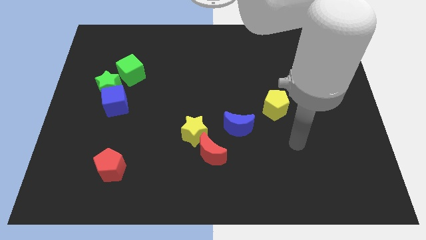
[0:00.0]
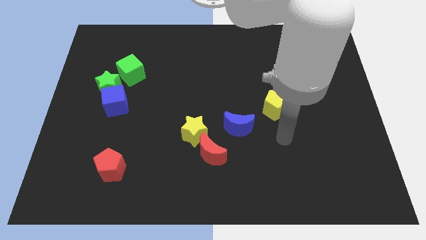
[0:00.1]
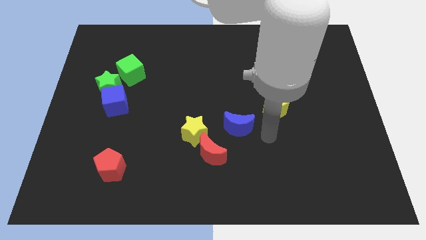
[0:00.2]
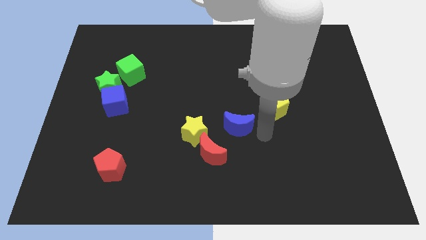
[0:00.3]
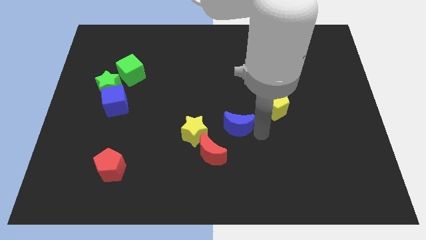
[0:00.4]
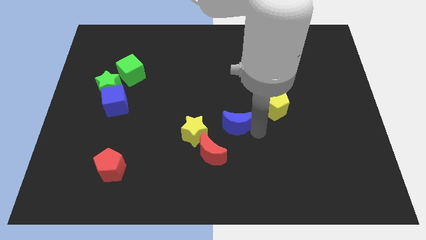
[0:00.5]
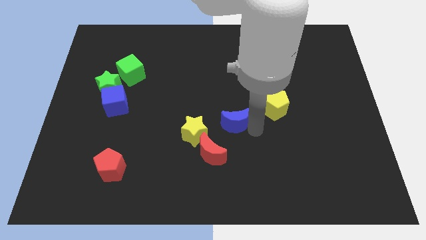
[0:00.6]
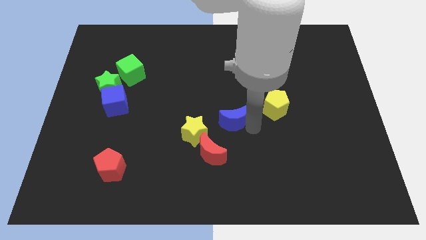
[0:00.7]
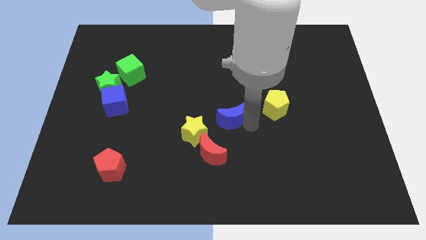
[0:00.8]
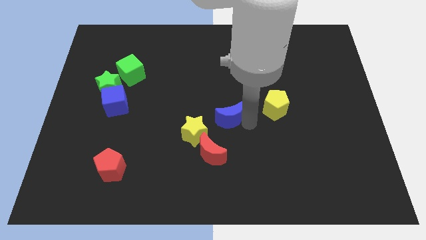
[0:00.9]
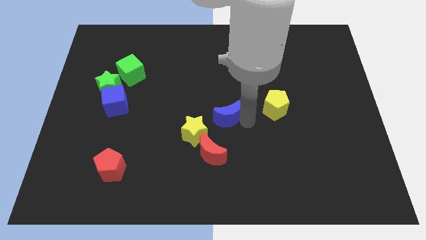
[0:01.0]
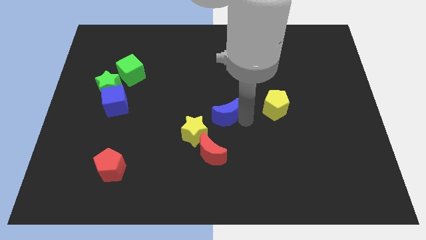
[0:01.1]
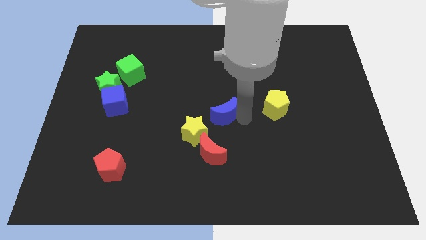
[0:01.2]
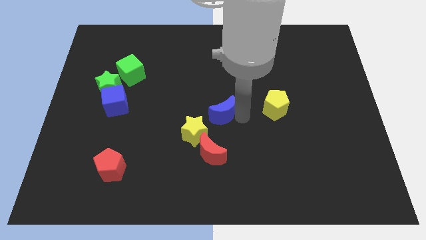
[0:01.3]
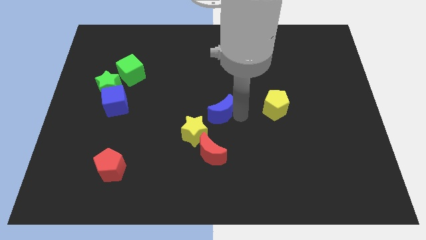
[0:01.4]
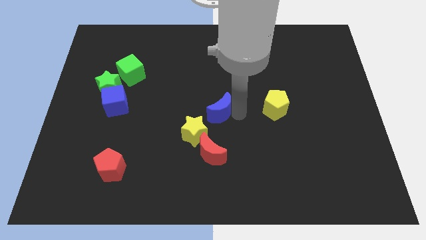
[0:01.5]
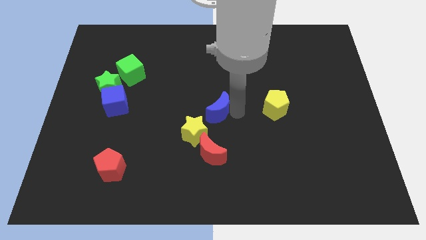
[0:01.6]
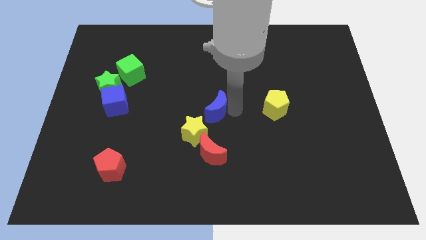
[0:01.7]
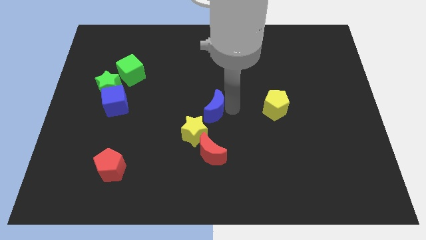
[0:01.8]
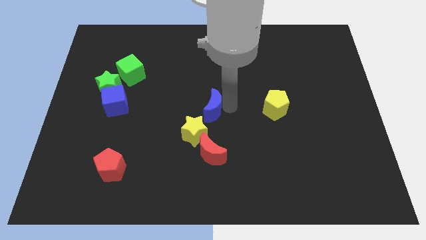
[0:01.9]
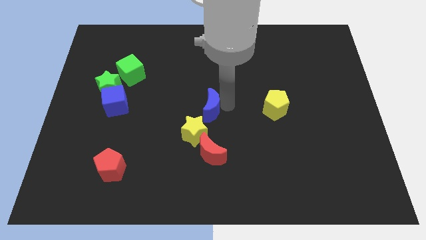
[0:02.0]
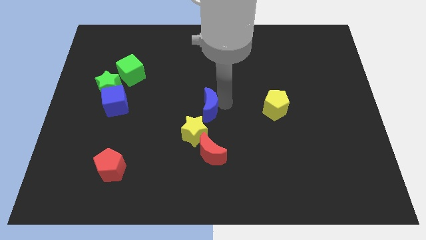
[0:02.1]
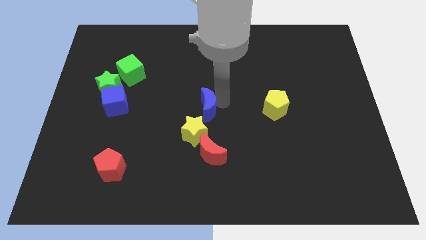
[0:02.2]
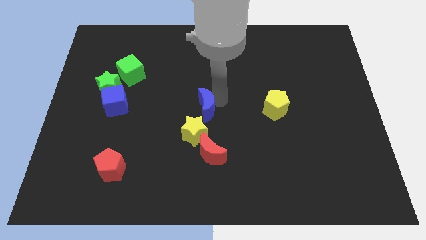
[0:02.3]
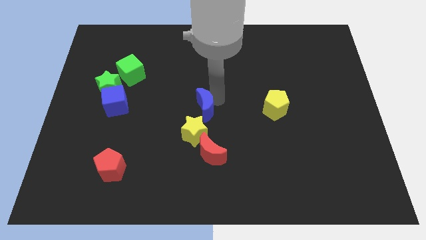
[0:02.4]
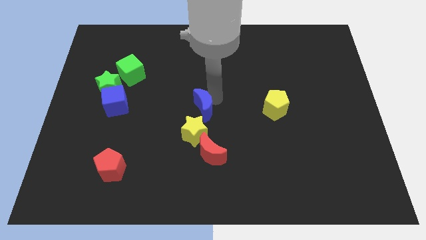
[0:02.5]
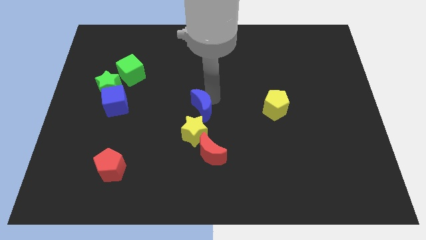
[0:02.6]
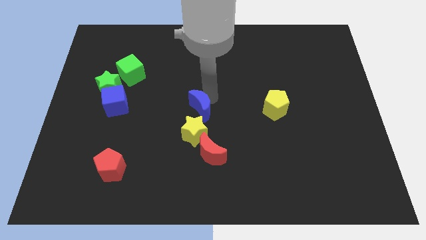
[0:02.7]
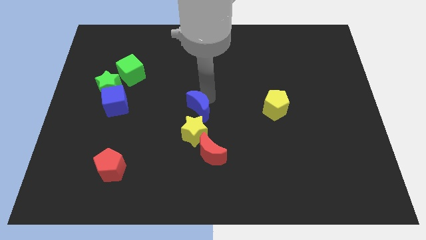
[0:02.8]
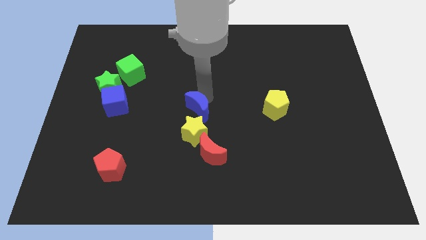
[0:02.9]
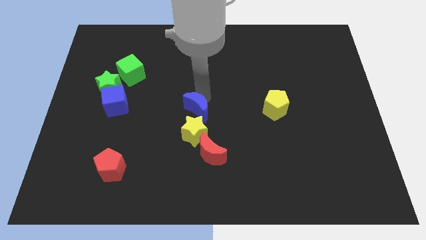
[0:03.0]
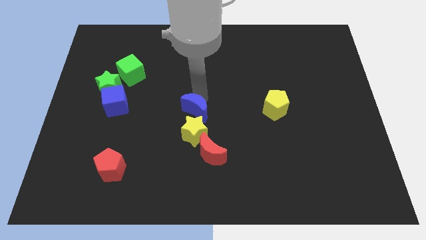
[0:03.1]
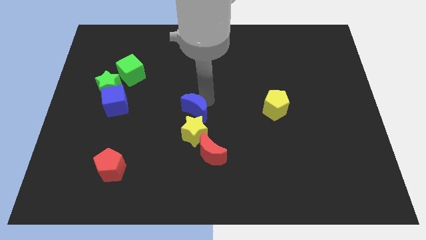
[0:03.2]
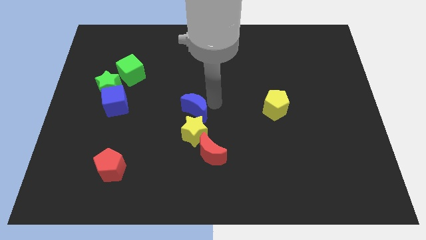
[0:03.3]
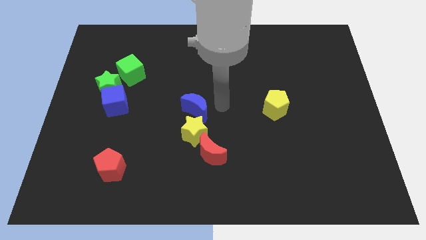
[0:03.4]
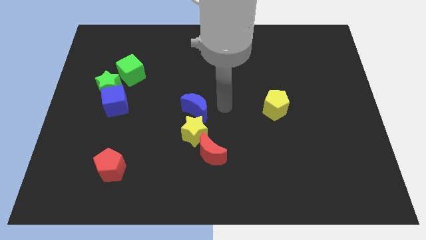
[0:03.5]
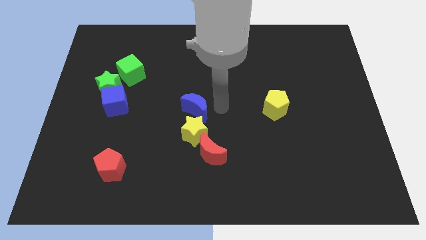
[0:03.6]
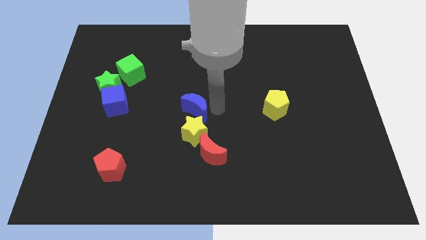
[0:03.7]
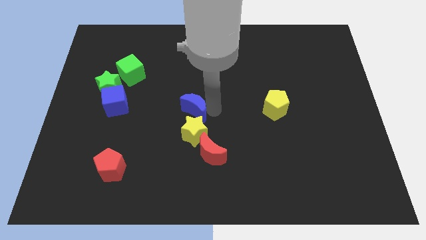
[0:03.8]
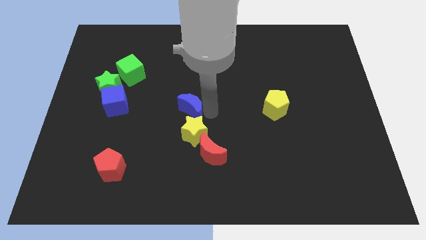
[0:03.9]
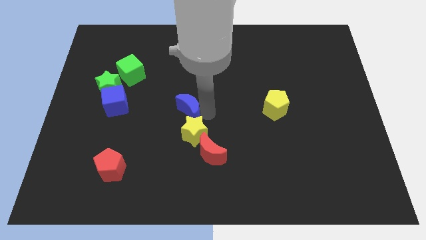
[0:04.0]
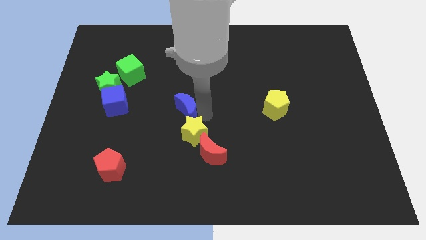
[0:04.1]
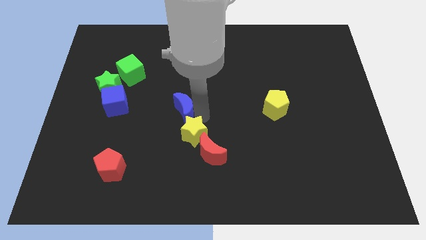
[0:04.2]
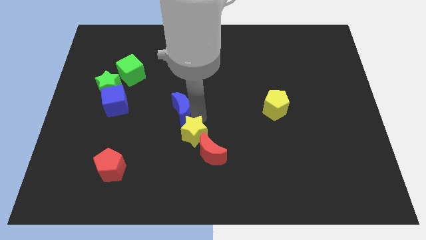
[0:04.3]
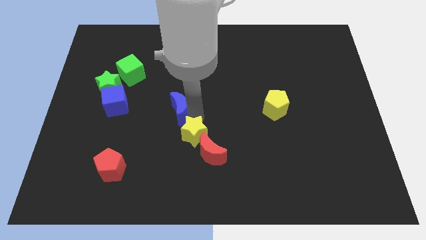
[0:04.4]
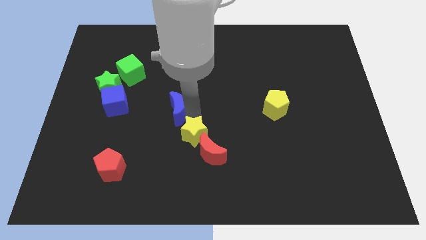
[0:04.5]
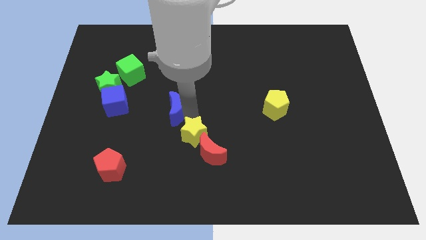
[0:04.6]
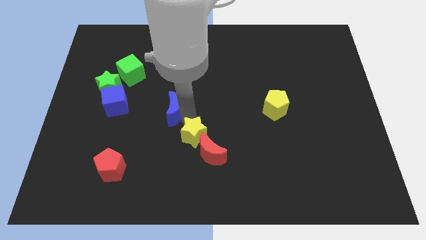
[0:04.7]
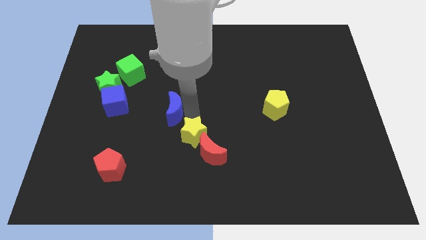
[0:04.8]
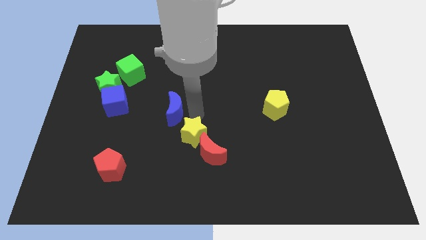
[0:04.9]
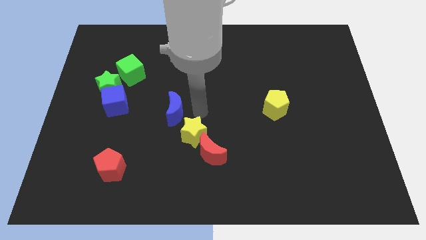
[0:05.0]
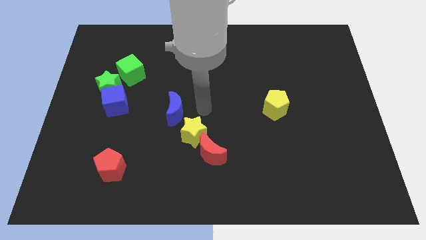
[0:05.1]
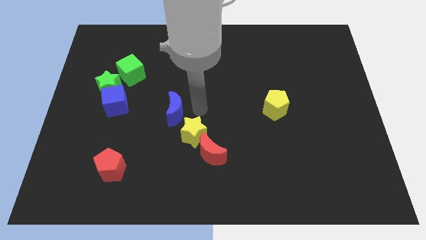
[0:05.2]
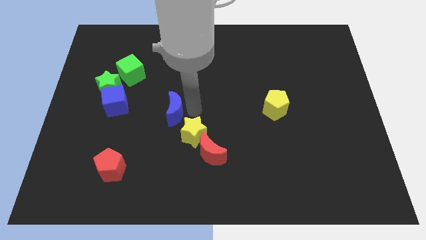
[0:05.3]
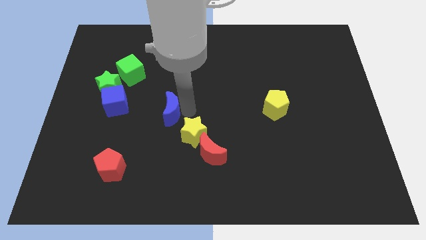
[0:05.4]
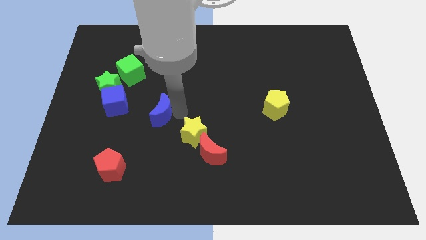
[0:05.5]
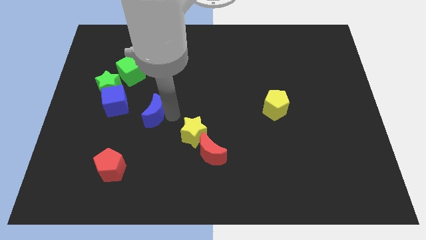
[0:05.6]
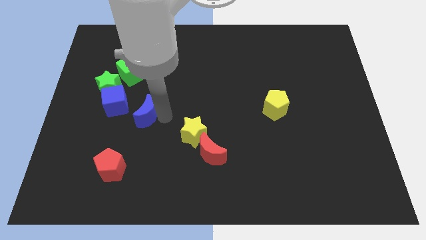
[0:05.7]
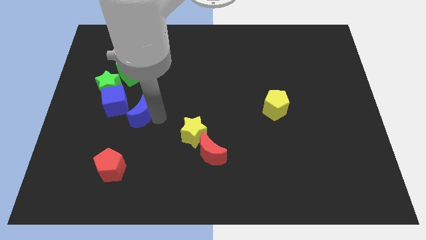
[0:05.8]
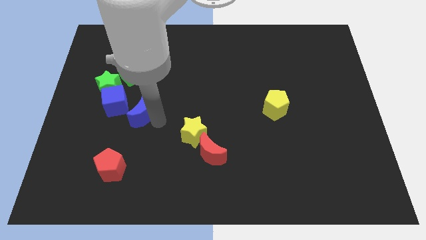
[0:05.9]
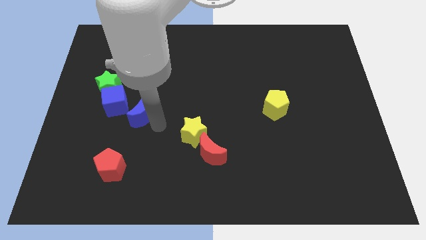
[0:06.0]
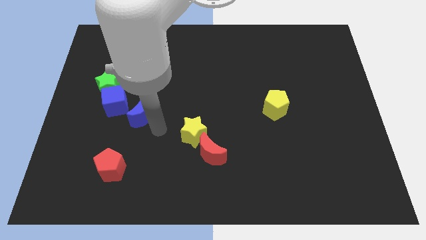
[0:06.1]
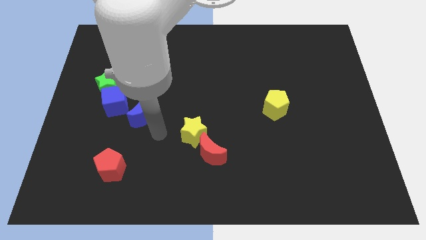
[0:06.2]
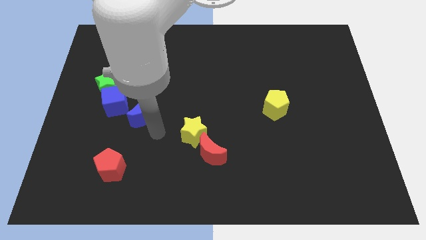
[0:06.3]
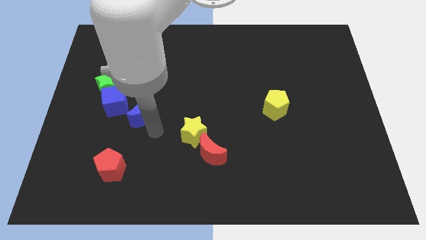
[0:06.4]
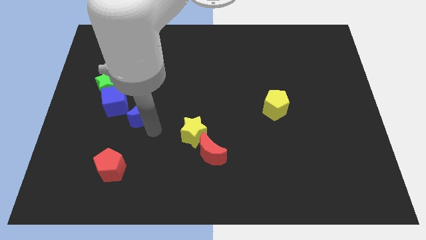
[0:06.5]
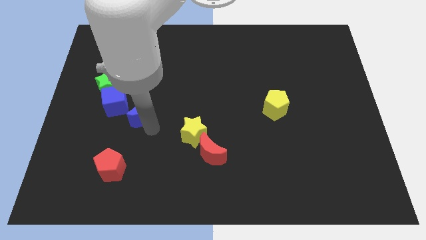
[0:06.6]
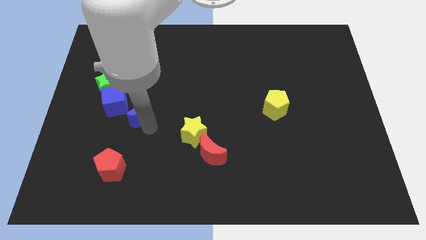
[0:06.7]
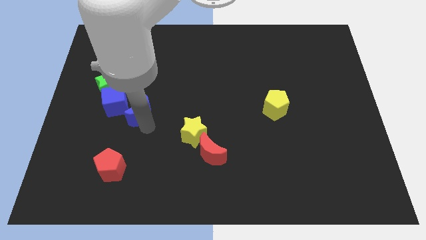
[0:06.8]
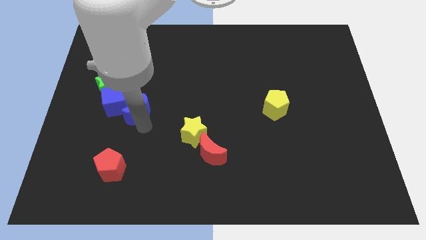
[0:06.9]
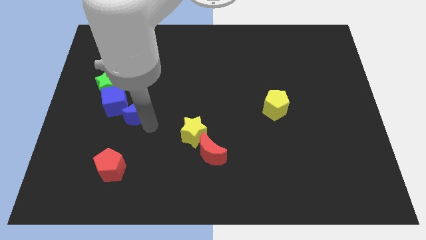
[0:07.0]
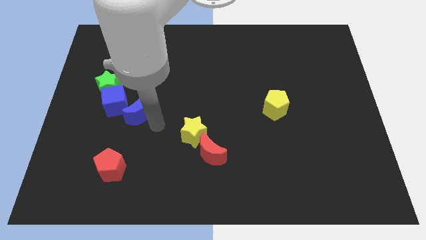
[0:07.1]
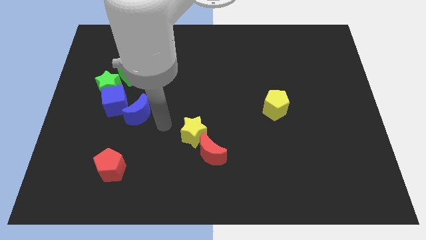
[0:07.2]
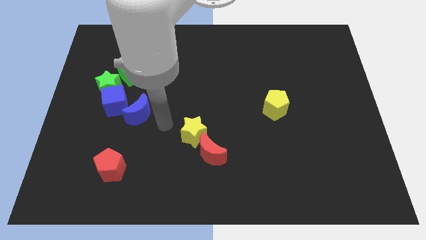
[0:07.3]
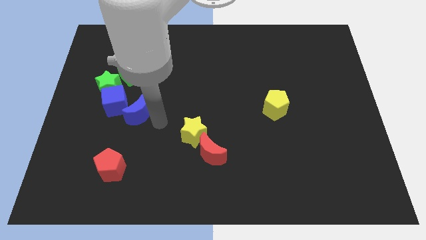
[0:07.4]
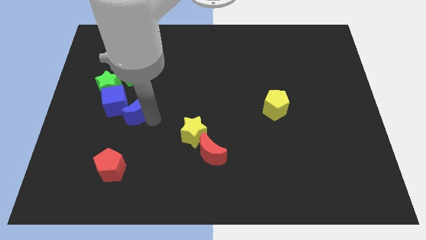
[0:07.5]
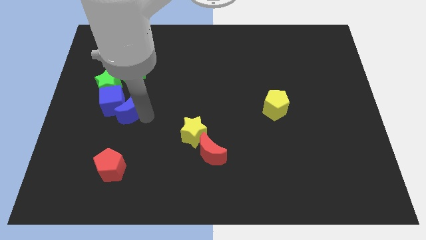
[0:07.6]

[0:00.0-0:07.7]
push the blue moon close to the blue cube
